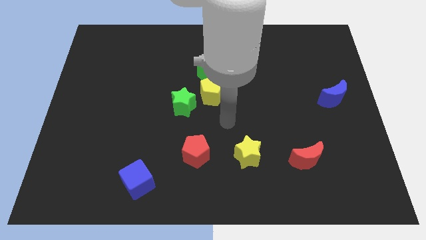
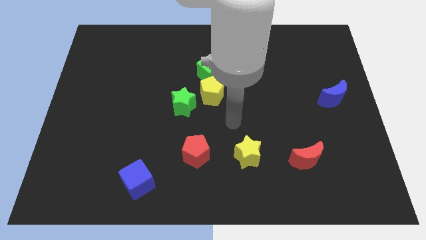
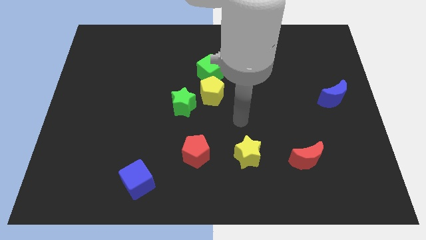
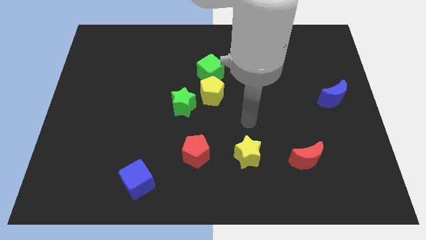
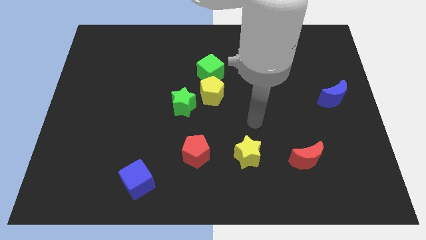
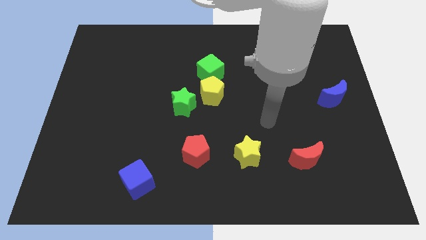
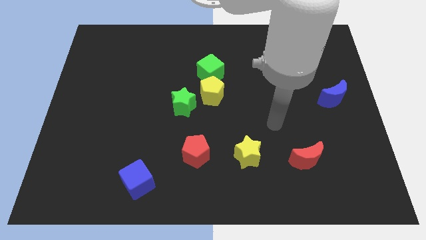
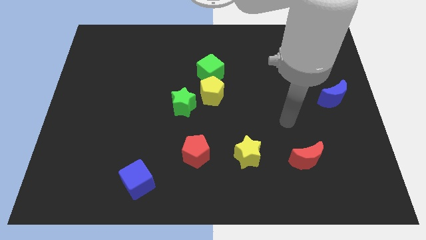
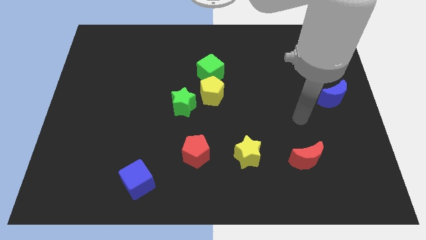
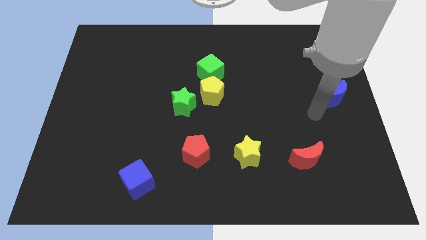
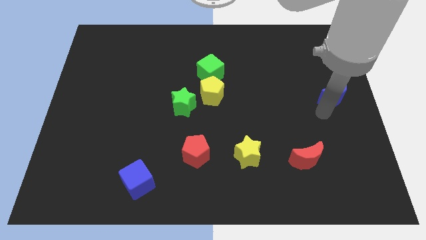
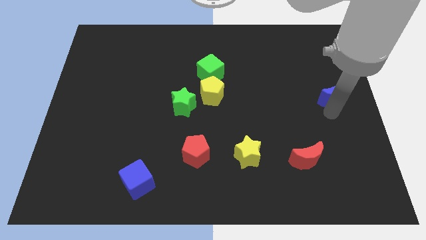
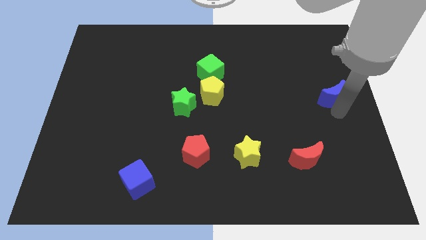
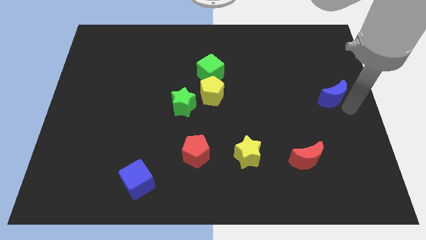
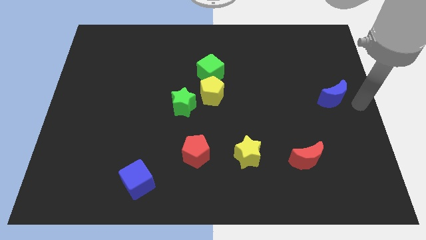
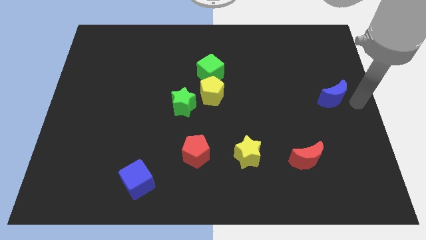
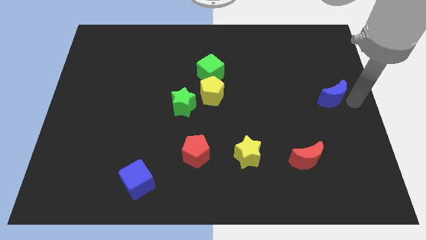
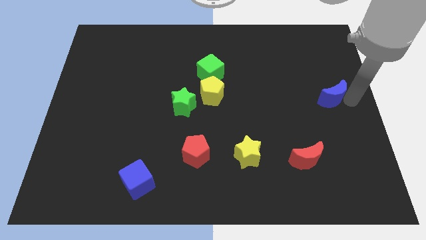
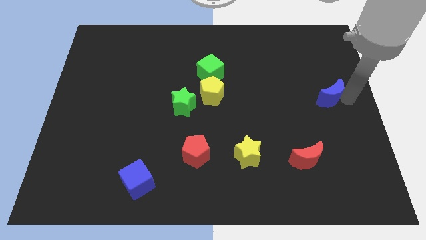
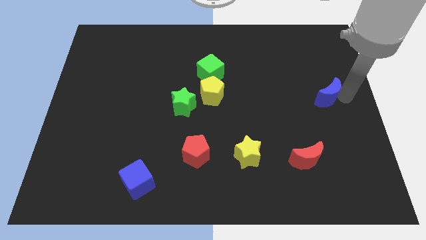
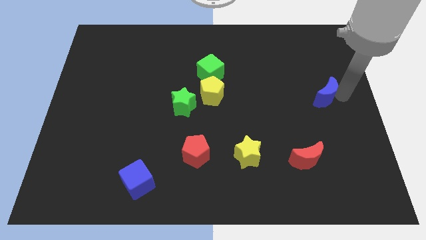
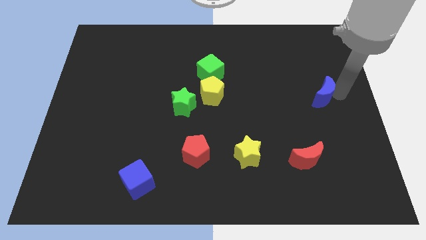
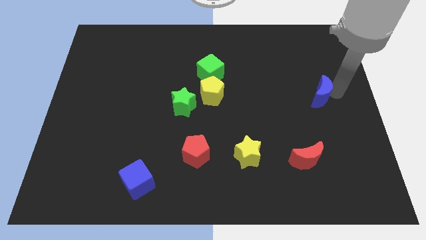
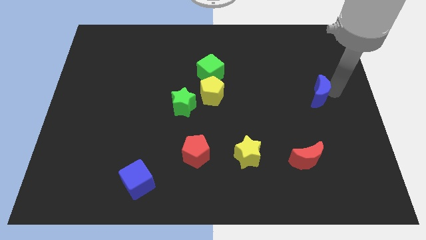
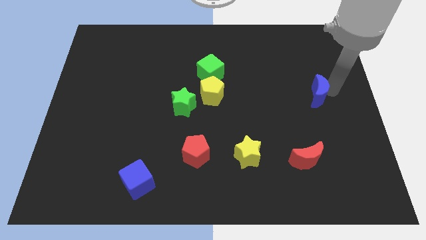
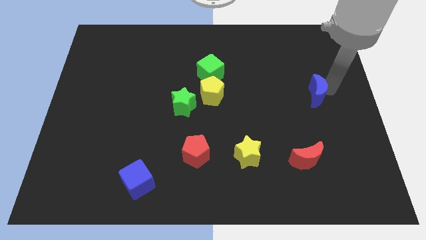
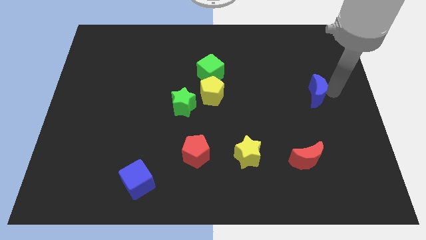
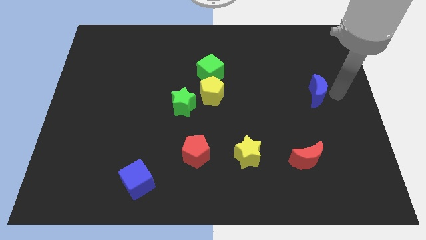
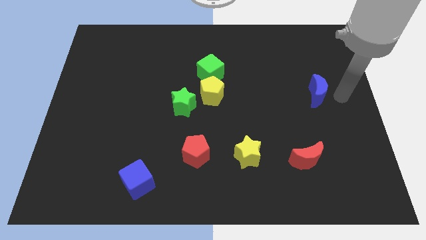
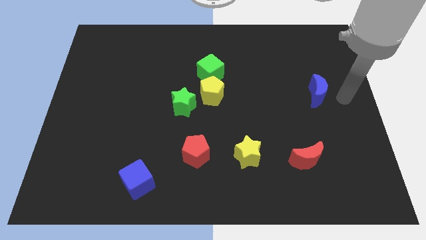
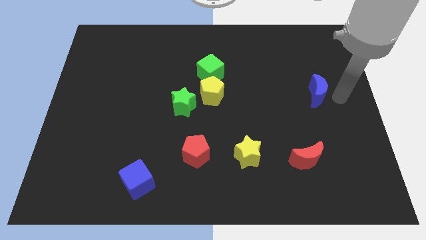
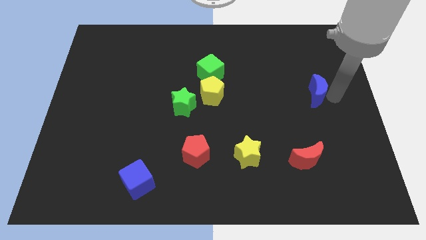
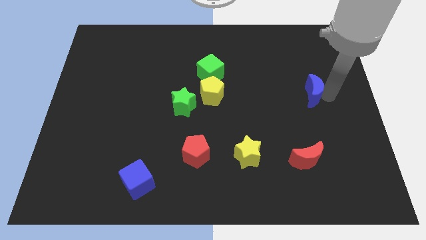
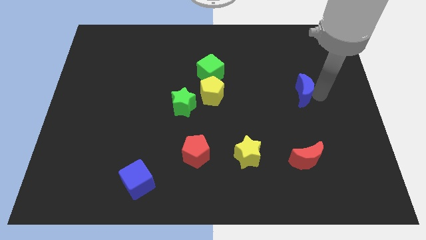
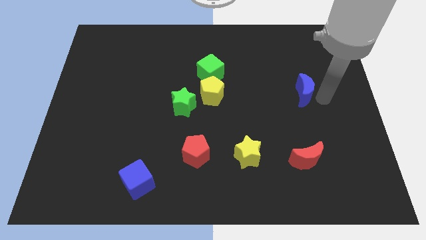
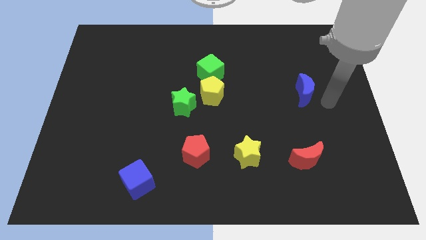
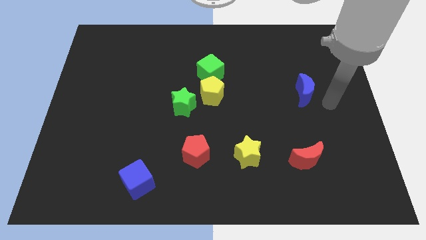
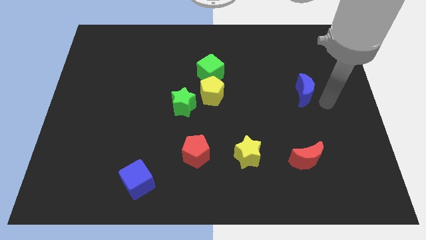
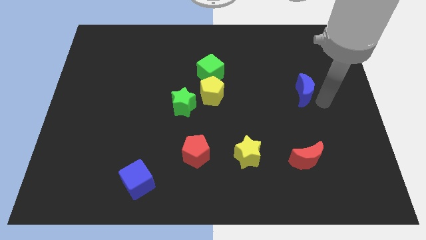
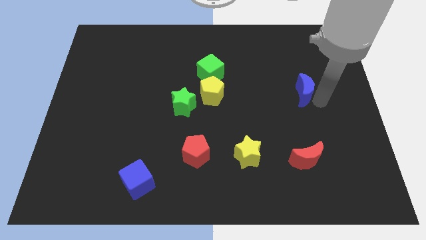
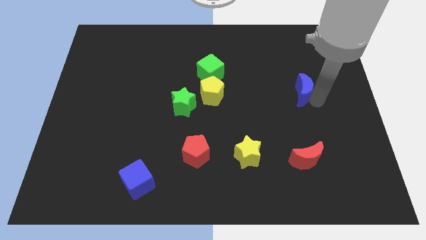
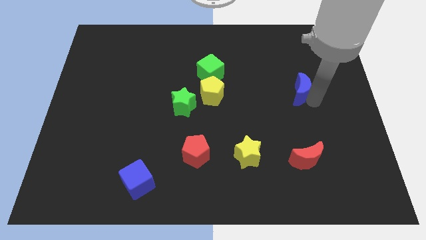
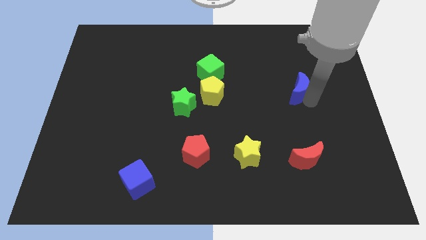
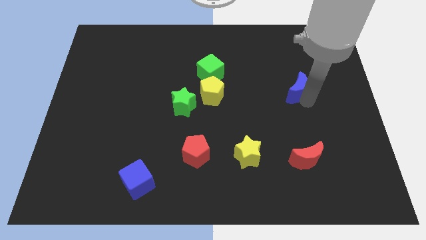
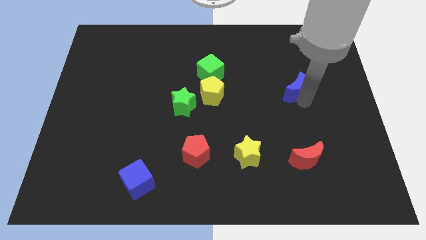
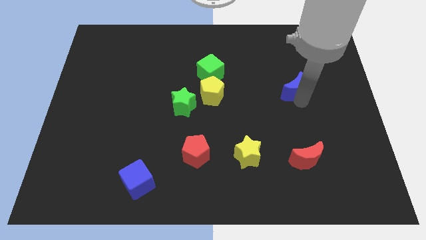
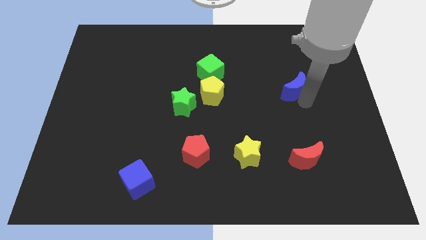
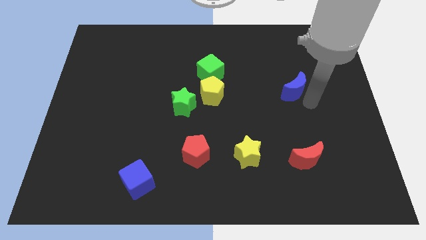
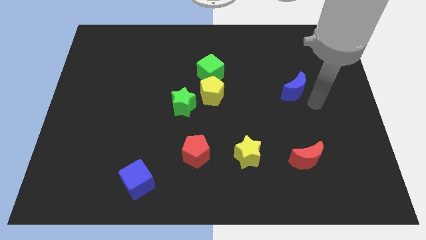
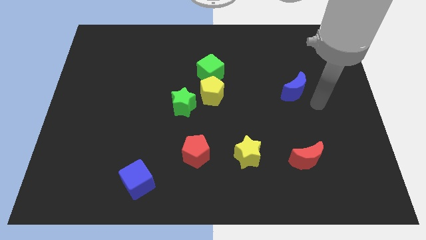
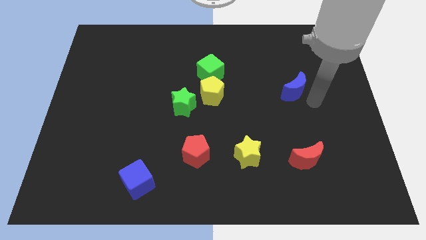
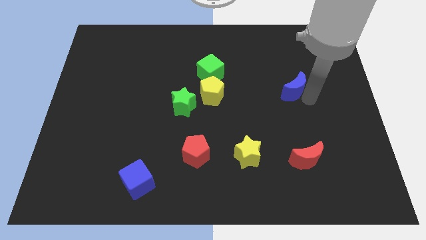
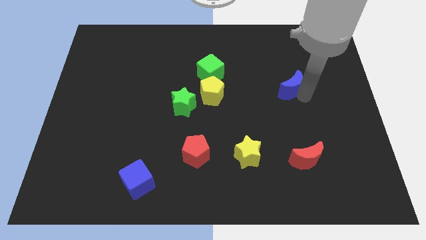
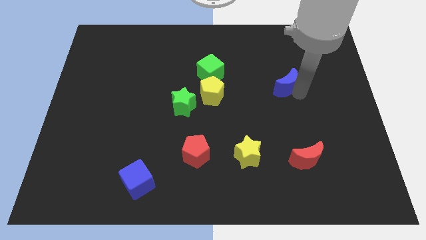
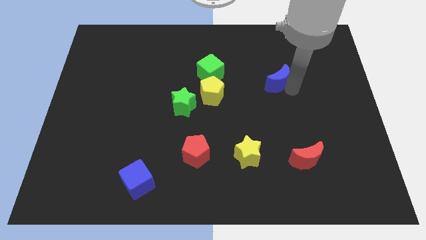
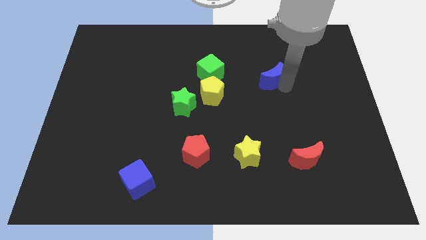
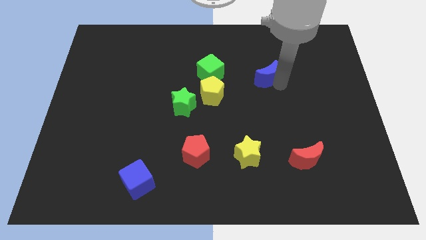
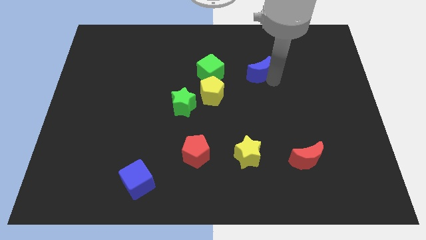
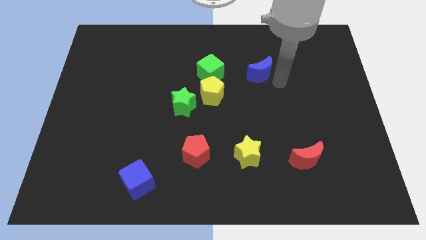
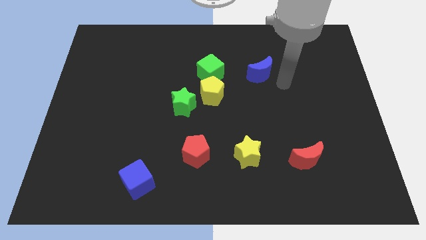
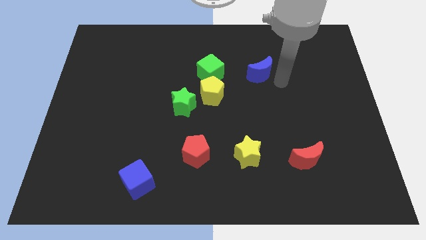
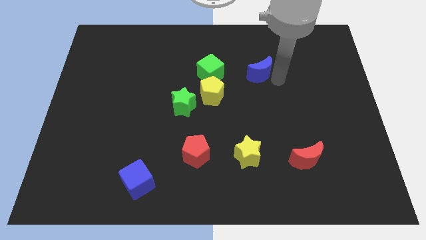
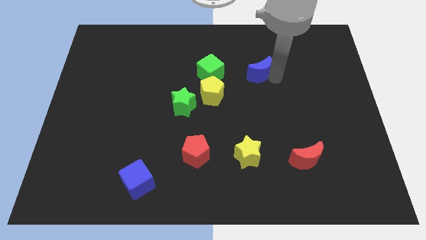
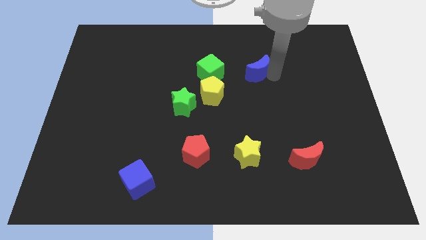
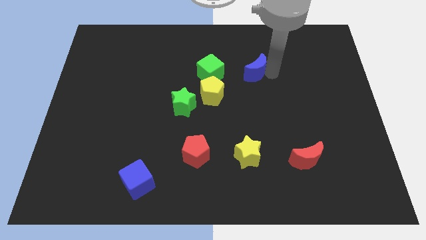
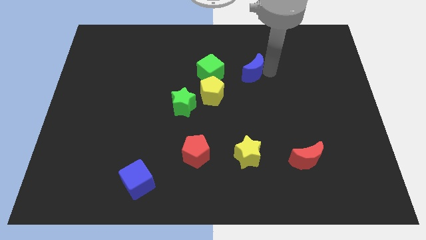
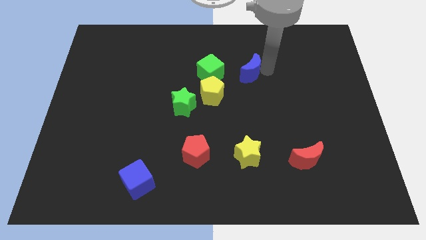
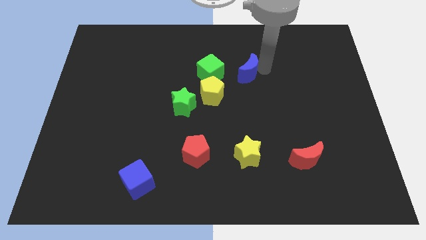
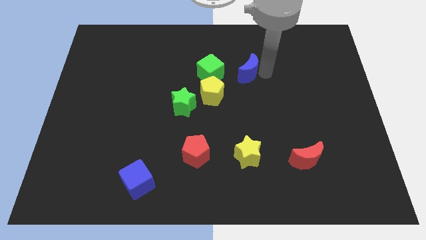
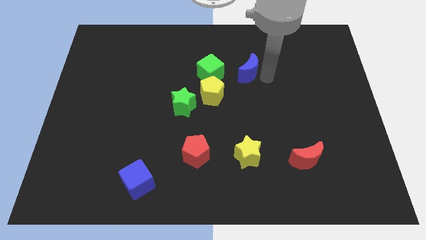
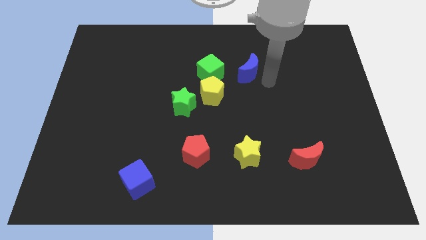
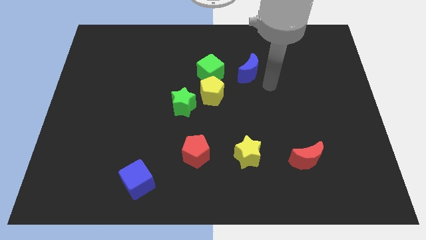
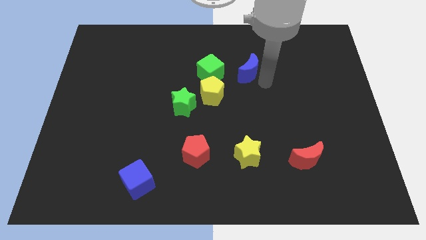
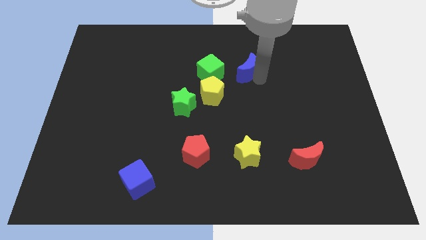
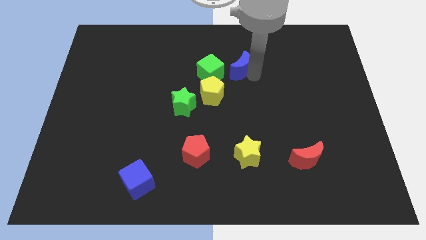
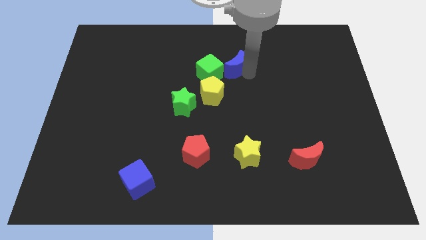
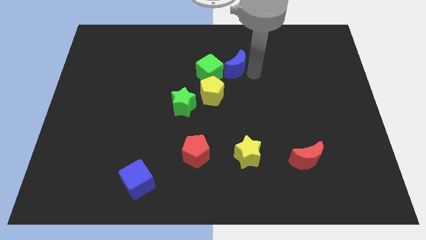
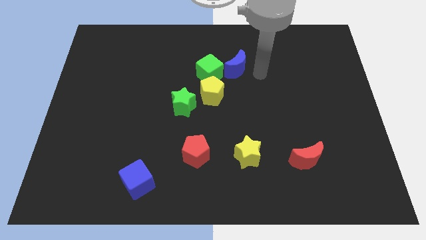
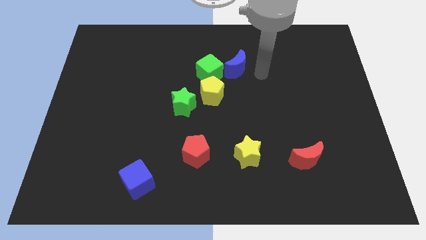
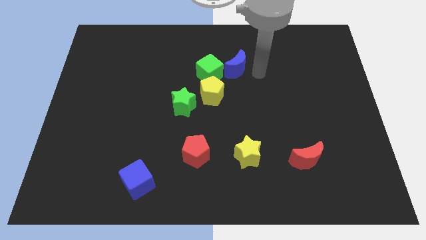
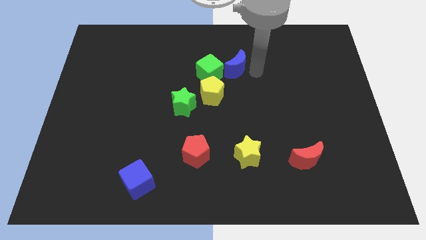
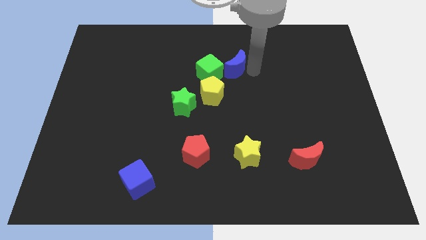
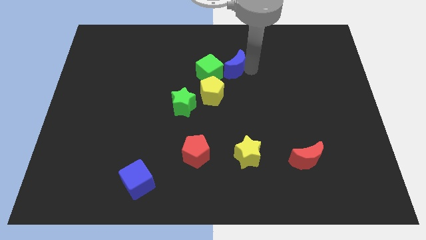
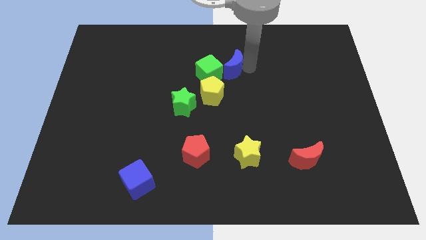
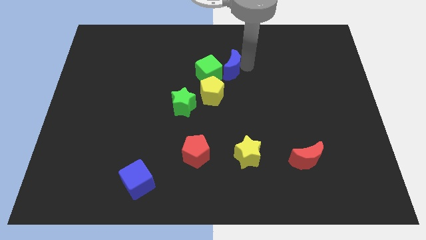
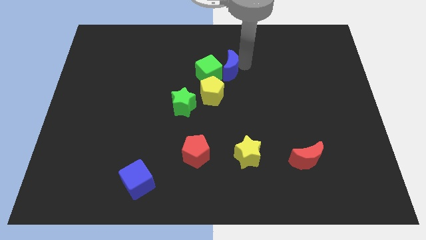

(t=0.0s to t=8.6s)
push the blue moon above the yellow pentagon
